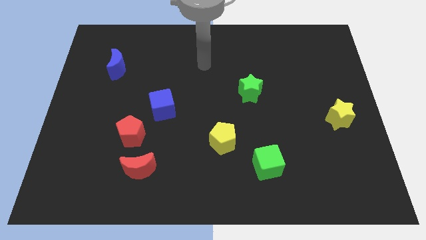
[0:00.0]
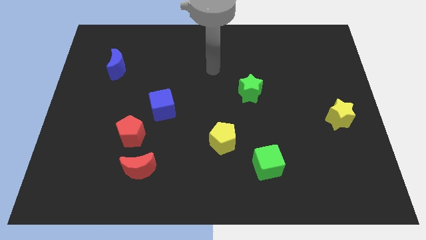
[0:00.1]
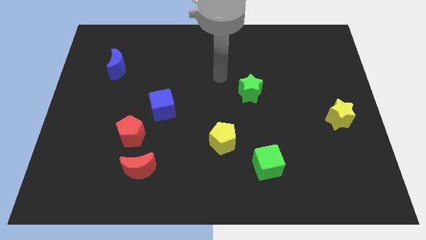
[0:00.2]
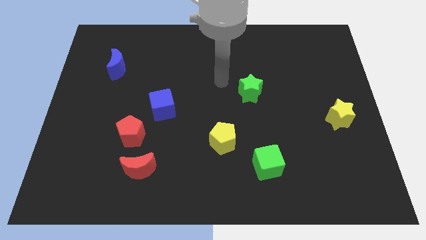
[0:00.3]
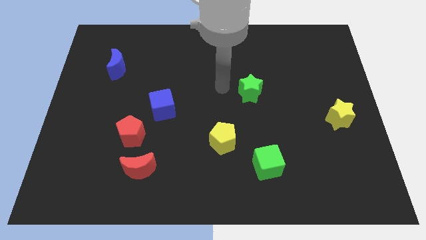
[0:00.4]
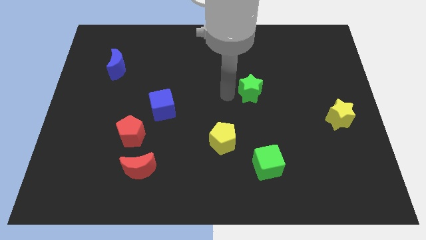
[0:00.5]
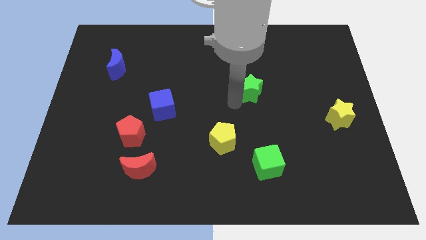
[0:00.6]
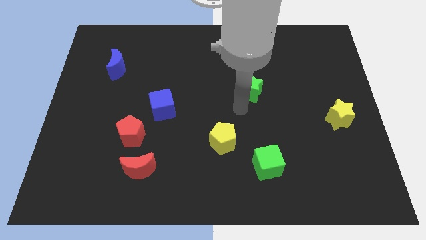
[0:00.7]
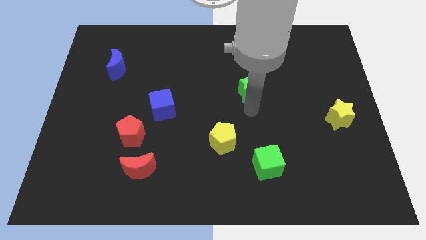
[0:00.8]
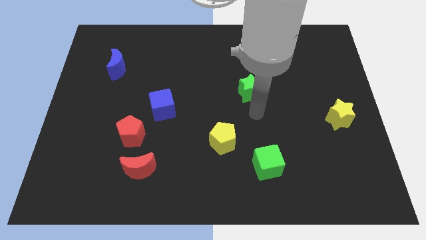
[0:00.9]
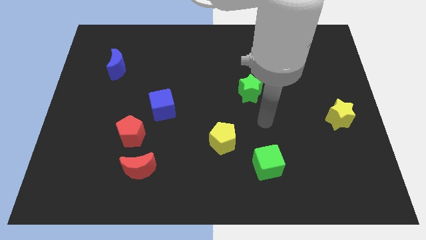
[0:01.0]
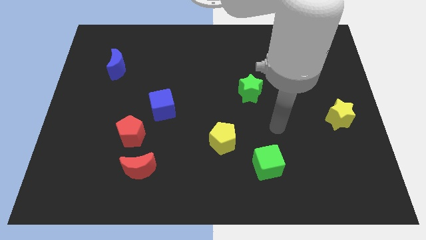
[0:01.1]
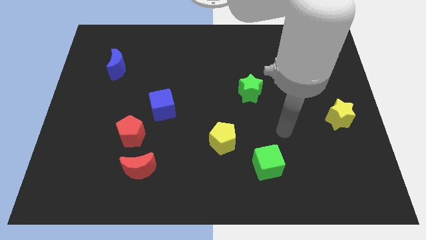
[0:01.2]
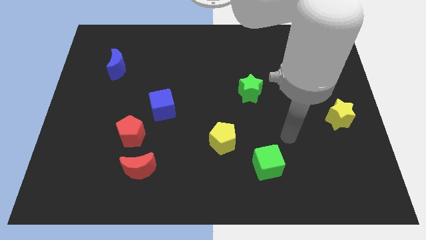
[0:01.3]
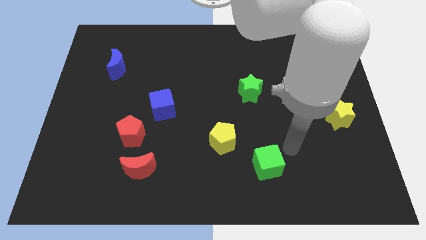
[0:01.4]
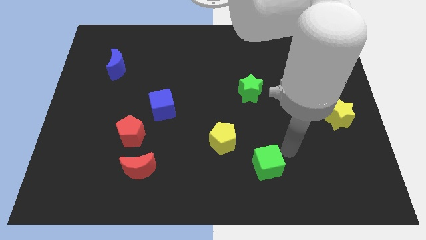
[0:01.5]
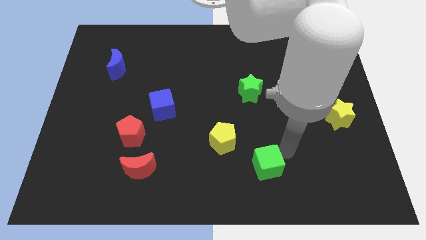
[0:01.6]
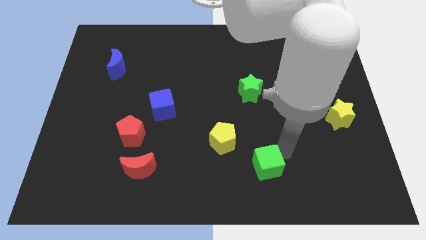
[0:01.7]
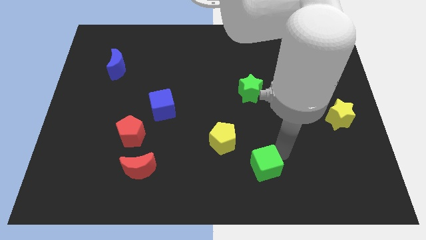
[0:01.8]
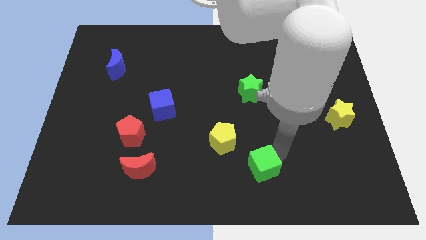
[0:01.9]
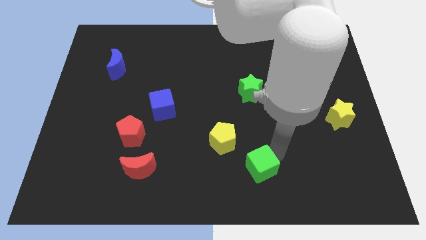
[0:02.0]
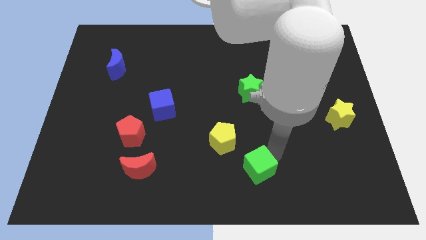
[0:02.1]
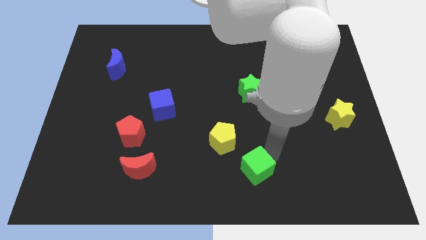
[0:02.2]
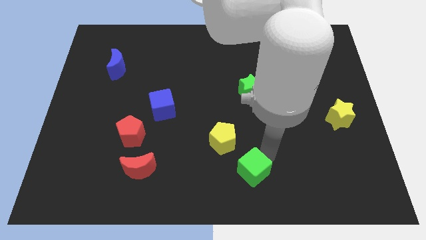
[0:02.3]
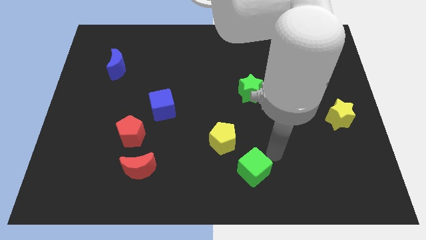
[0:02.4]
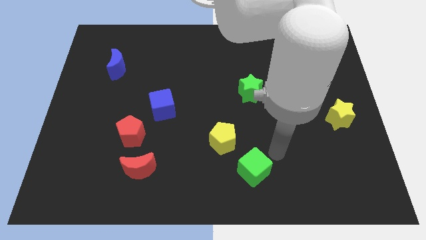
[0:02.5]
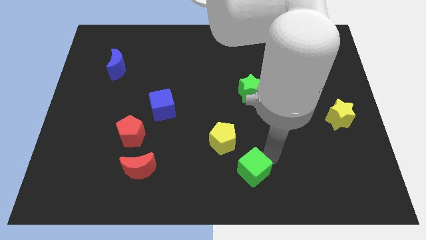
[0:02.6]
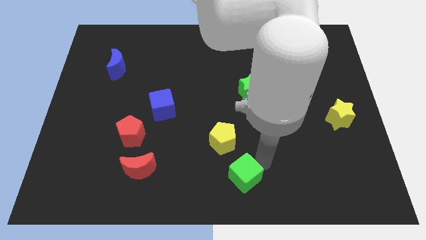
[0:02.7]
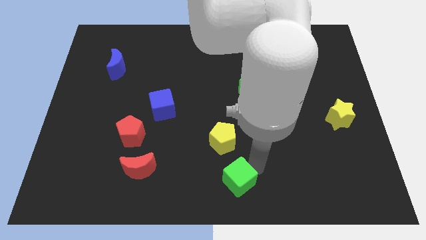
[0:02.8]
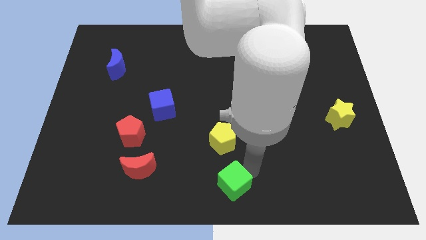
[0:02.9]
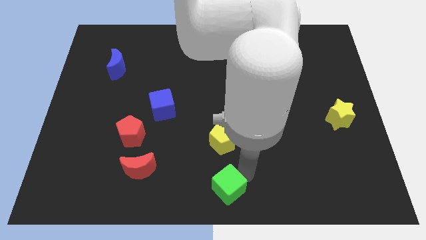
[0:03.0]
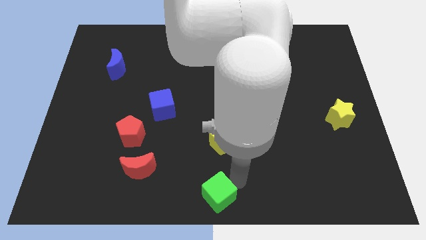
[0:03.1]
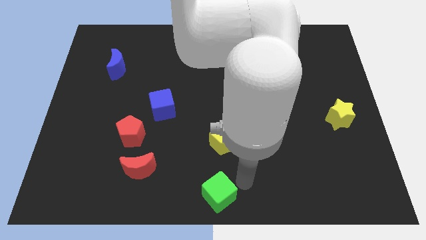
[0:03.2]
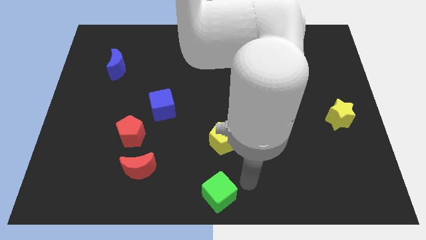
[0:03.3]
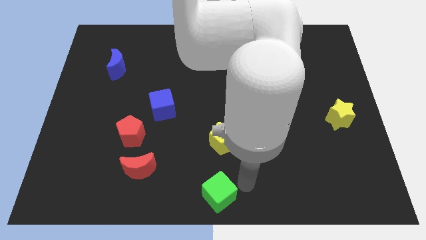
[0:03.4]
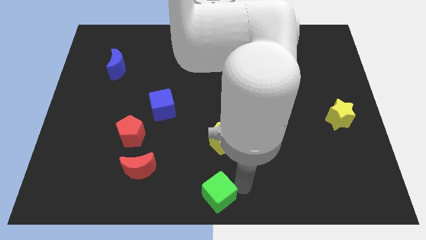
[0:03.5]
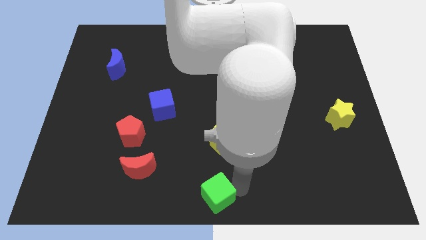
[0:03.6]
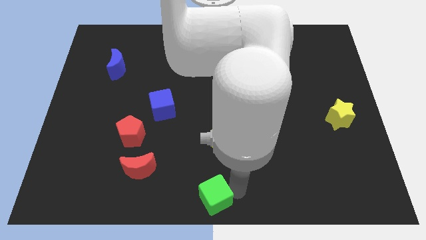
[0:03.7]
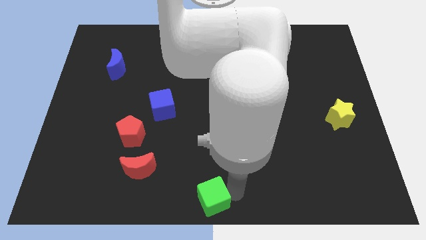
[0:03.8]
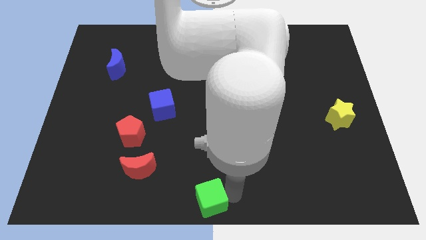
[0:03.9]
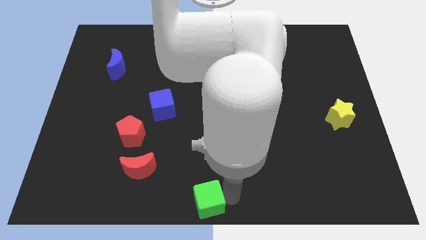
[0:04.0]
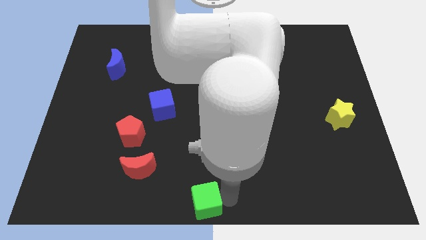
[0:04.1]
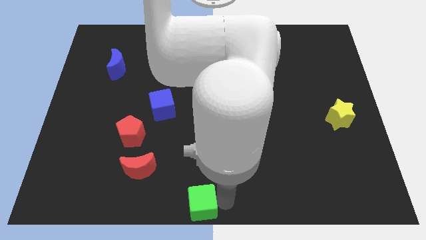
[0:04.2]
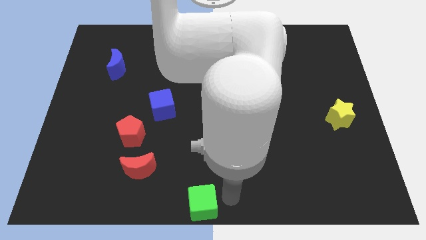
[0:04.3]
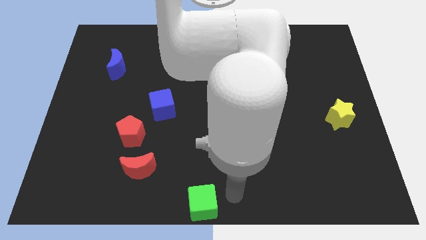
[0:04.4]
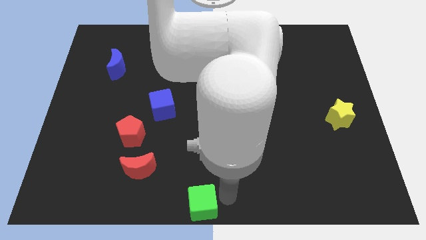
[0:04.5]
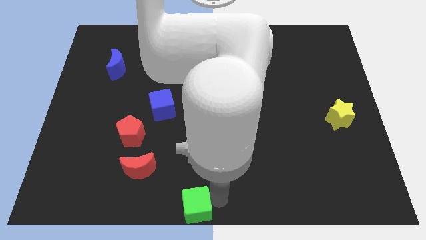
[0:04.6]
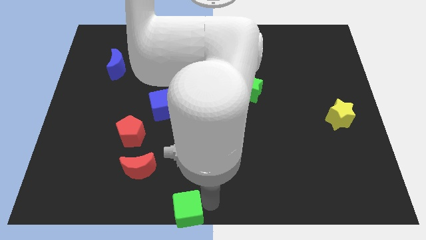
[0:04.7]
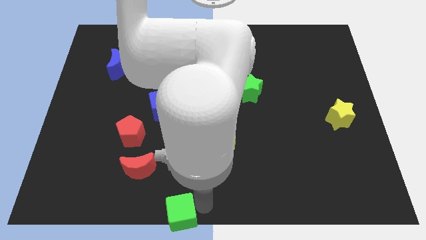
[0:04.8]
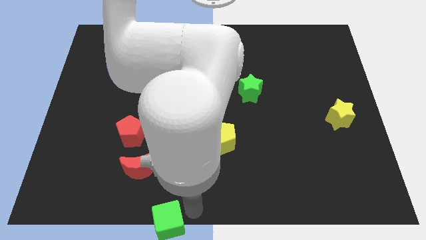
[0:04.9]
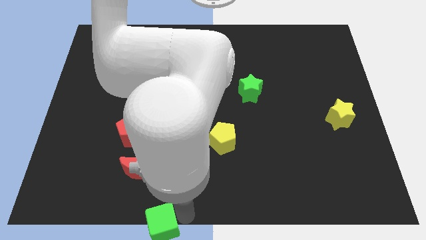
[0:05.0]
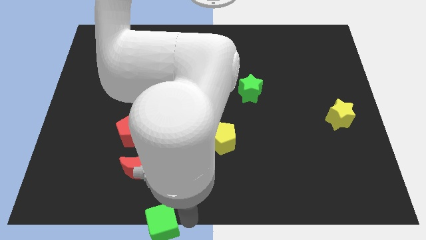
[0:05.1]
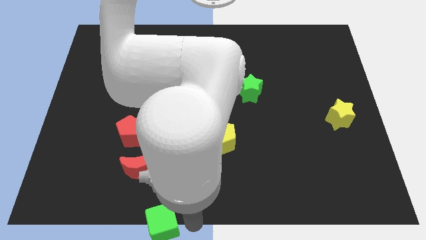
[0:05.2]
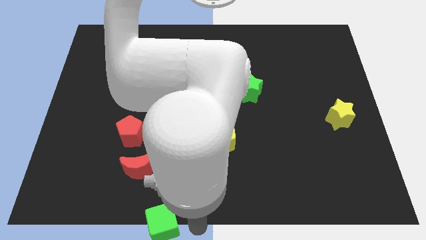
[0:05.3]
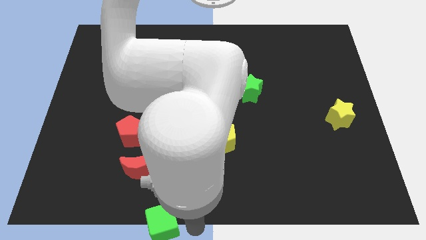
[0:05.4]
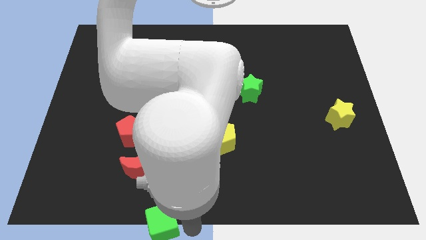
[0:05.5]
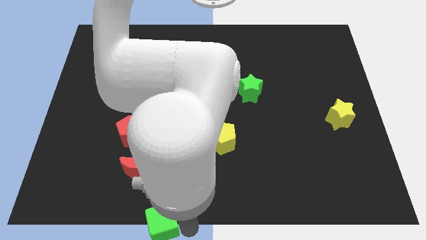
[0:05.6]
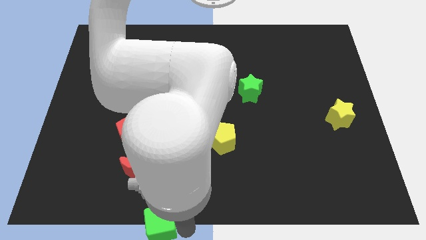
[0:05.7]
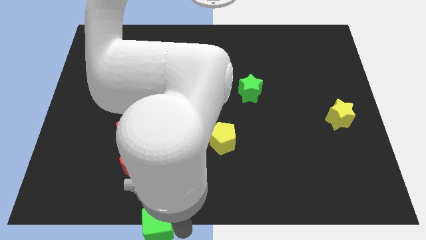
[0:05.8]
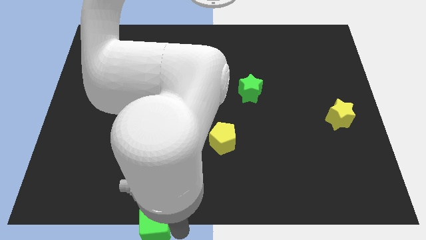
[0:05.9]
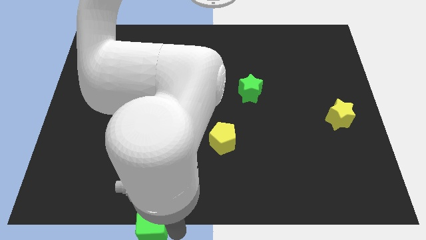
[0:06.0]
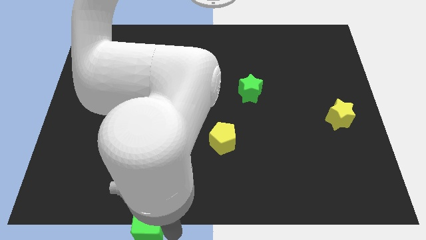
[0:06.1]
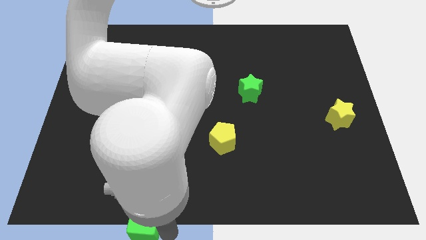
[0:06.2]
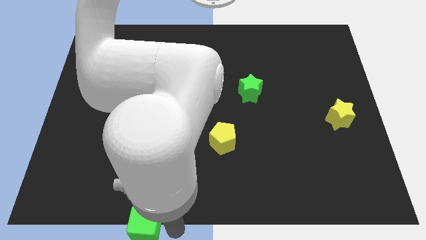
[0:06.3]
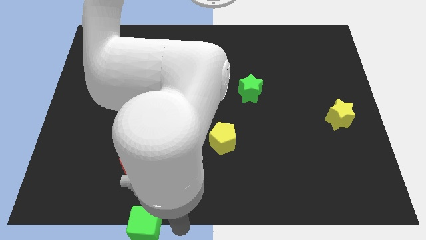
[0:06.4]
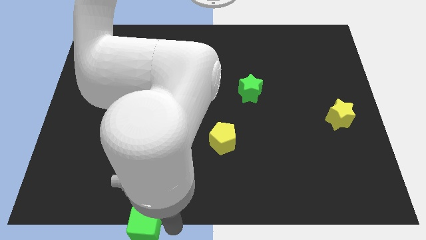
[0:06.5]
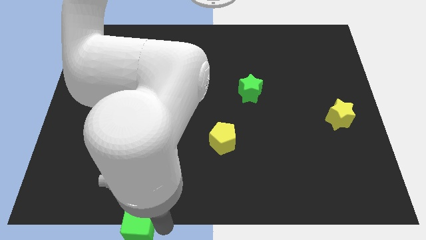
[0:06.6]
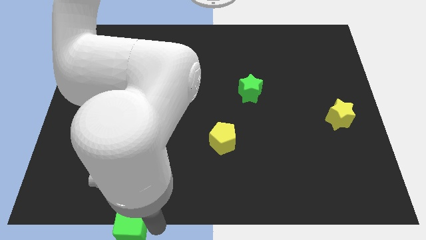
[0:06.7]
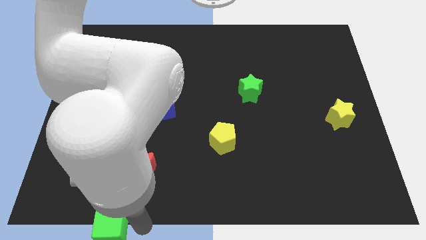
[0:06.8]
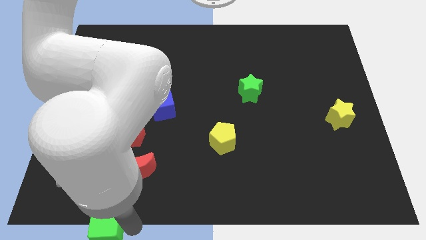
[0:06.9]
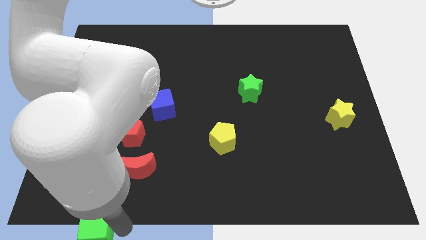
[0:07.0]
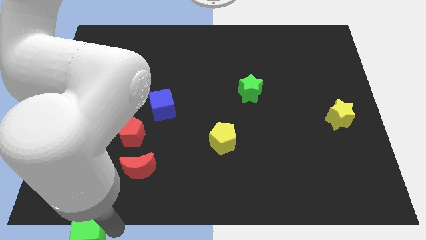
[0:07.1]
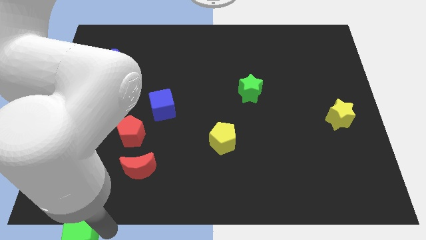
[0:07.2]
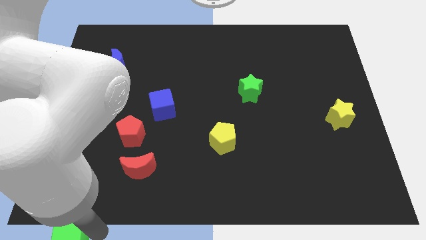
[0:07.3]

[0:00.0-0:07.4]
push the green cube to the bottom left of the board
